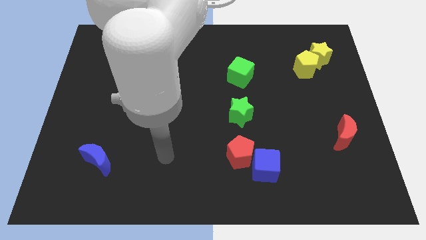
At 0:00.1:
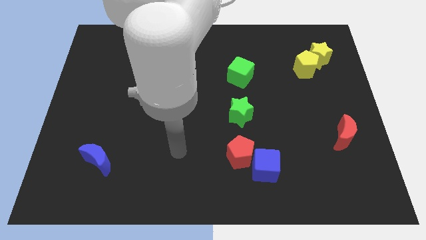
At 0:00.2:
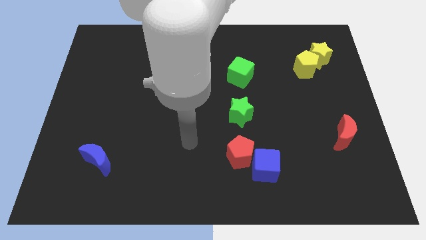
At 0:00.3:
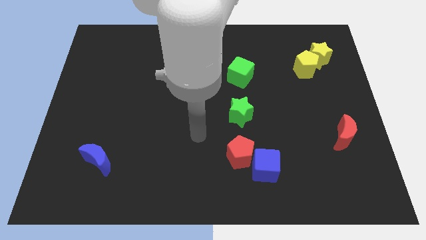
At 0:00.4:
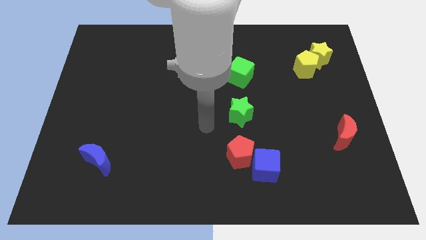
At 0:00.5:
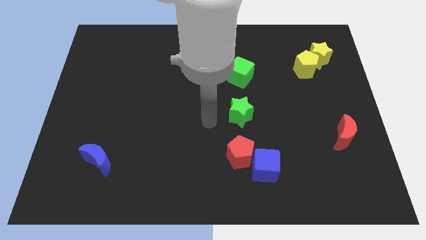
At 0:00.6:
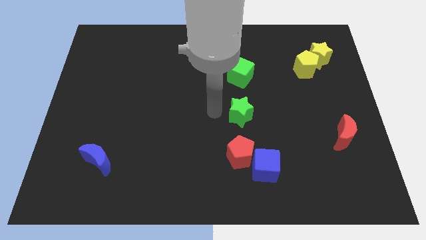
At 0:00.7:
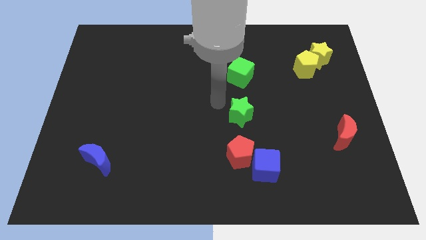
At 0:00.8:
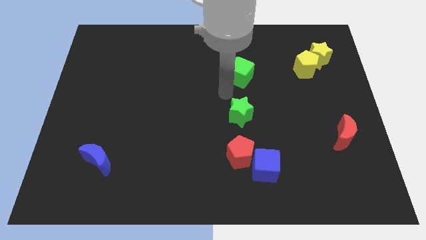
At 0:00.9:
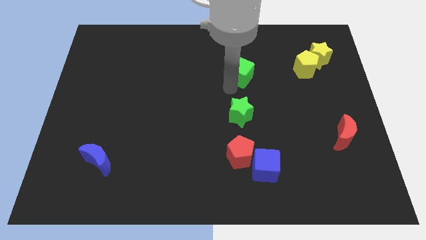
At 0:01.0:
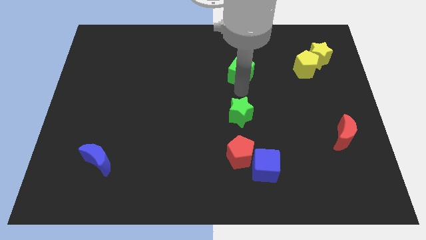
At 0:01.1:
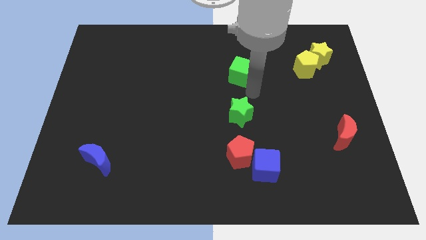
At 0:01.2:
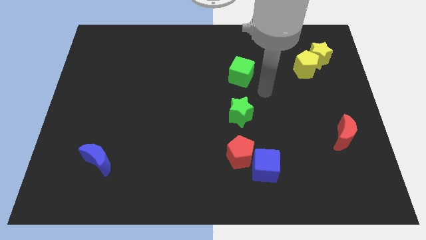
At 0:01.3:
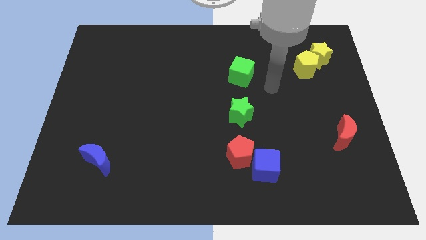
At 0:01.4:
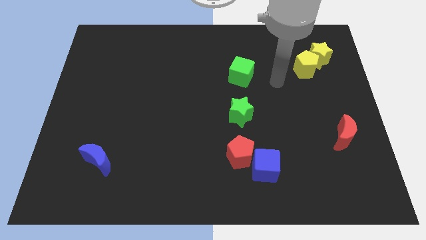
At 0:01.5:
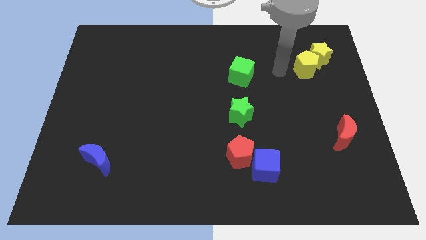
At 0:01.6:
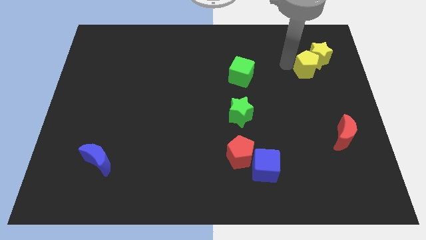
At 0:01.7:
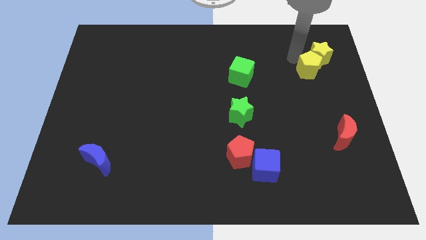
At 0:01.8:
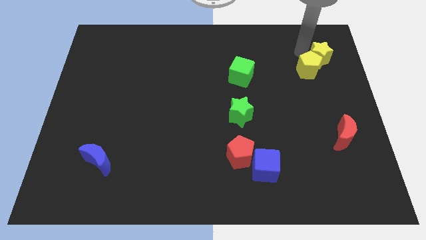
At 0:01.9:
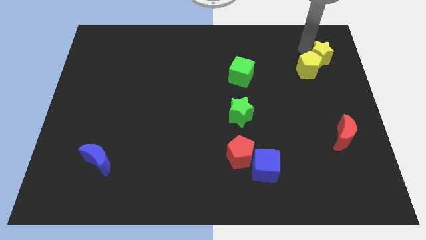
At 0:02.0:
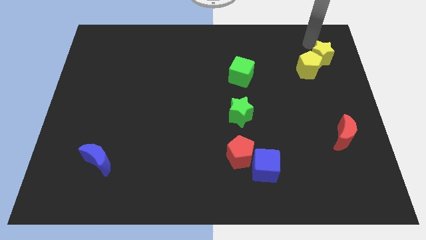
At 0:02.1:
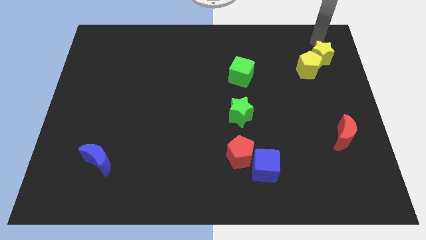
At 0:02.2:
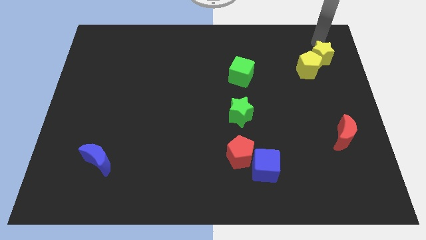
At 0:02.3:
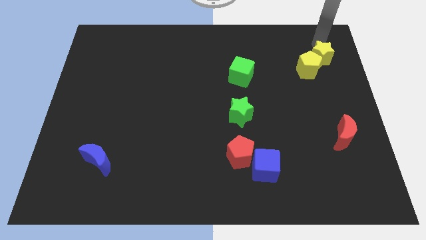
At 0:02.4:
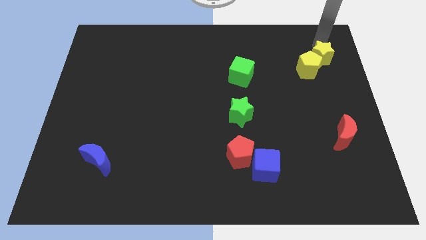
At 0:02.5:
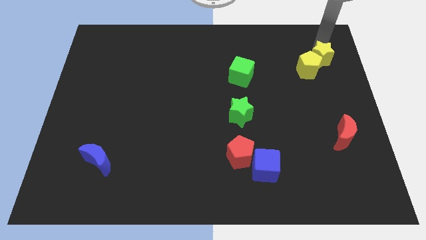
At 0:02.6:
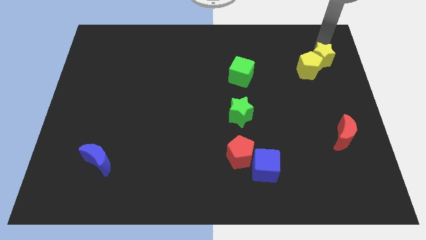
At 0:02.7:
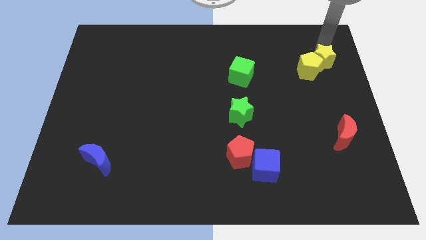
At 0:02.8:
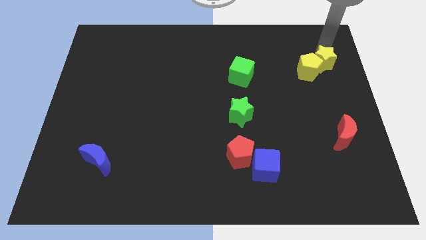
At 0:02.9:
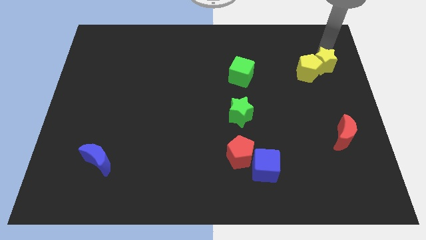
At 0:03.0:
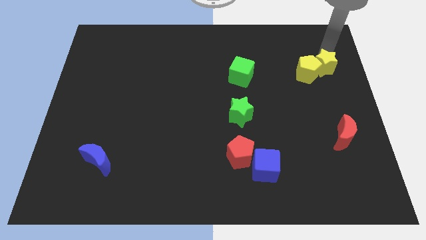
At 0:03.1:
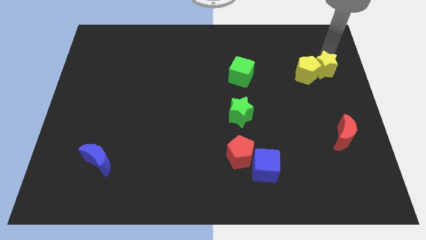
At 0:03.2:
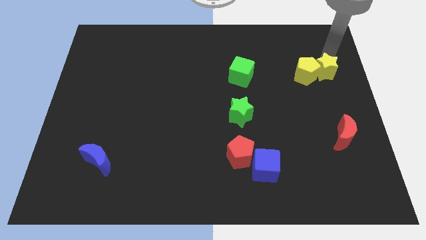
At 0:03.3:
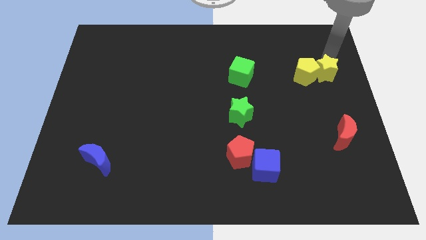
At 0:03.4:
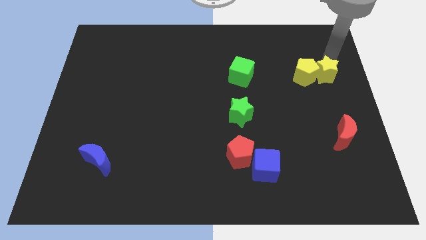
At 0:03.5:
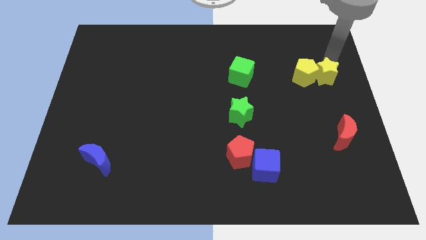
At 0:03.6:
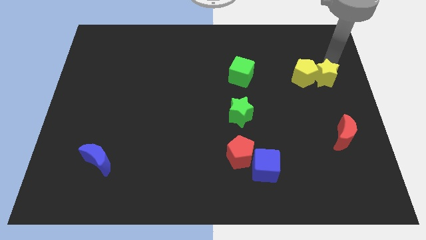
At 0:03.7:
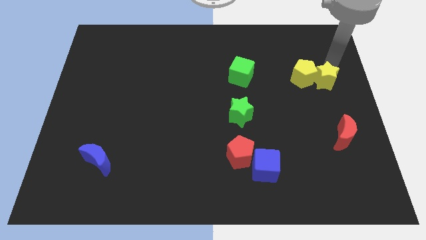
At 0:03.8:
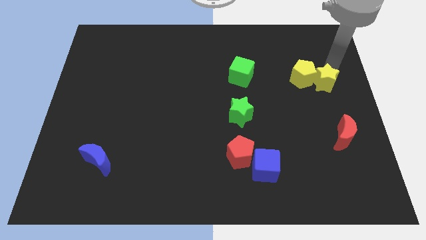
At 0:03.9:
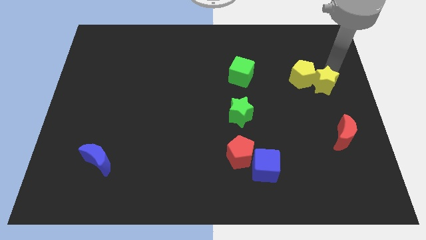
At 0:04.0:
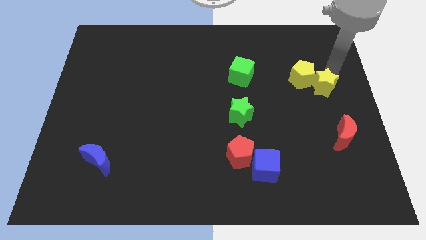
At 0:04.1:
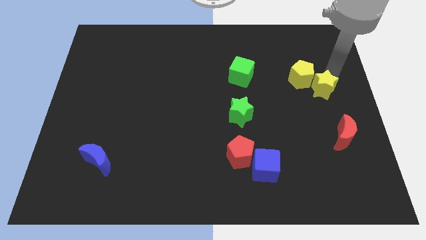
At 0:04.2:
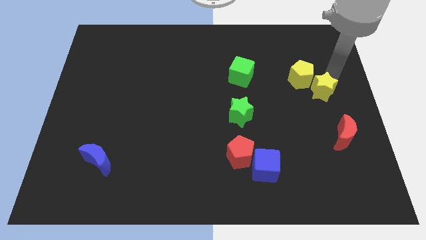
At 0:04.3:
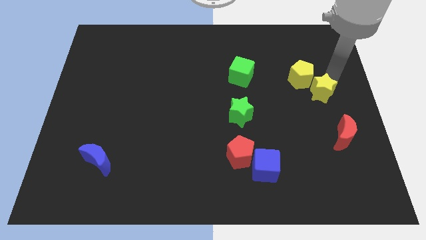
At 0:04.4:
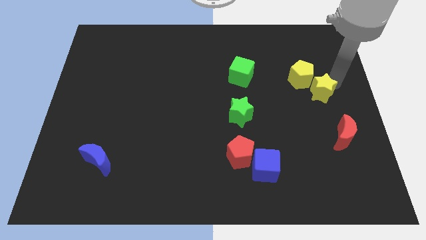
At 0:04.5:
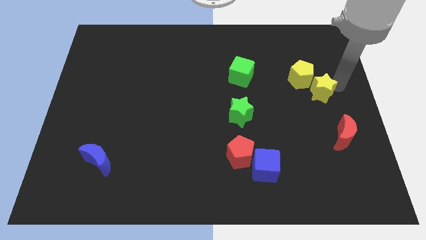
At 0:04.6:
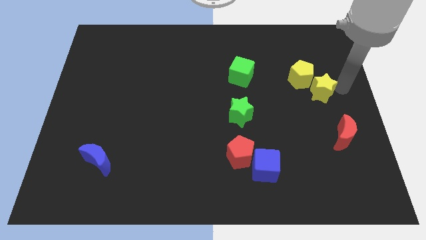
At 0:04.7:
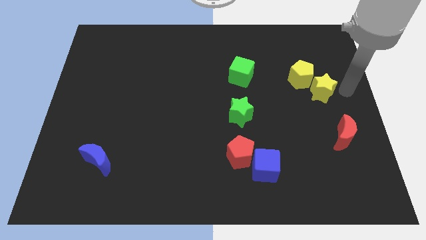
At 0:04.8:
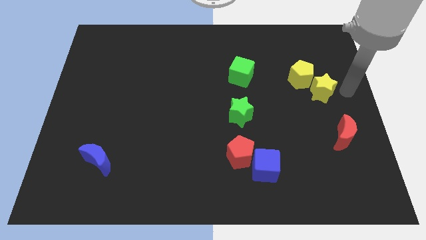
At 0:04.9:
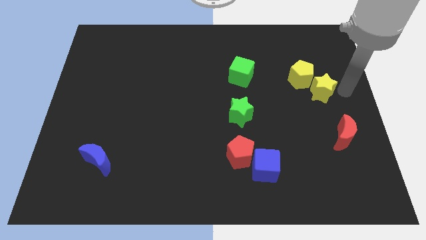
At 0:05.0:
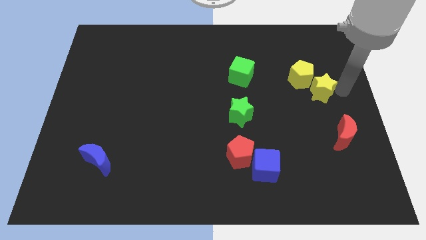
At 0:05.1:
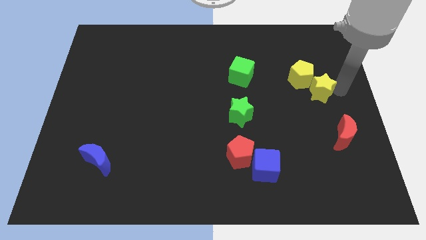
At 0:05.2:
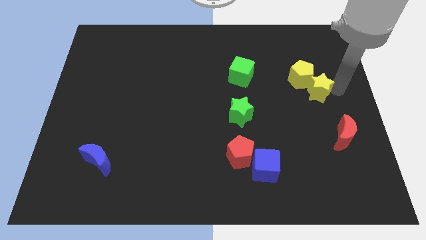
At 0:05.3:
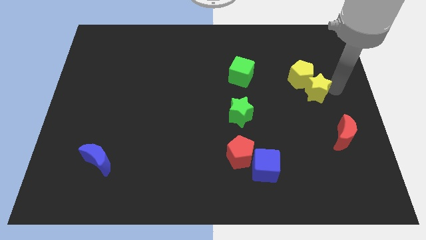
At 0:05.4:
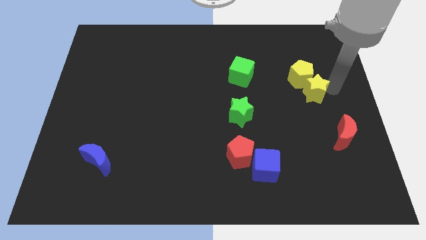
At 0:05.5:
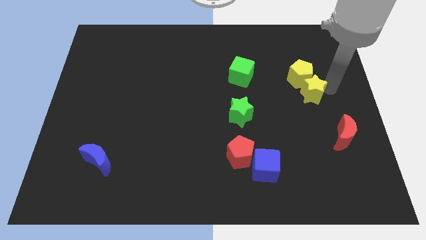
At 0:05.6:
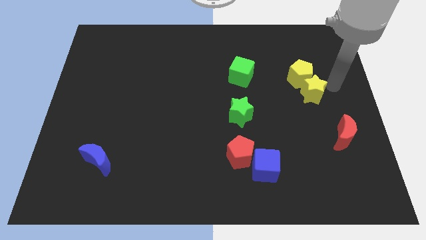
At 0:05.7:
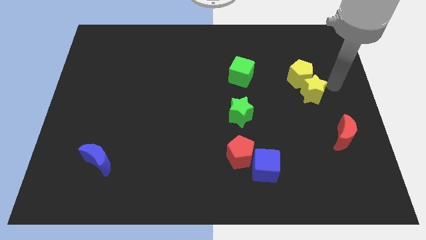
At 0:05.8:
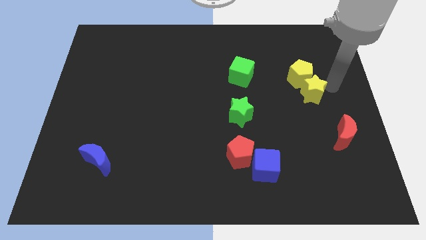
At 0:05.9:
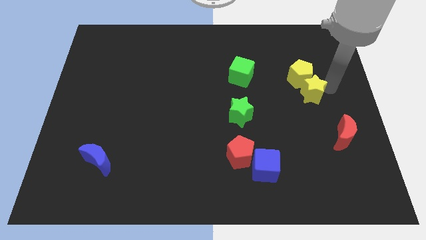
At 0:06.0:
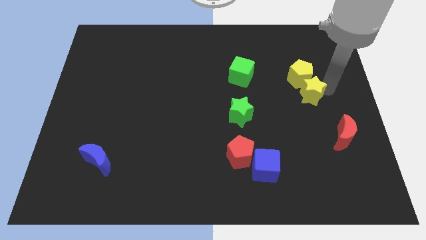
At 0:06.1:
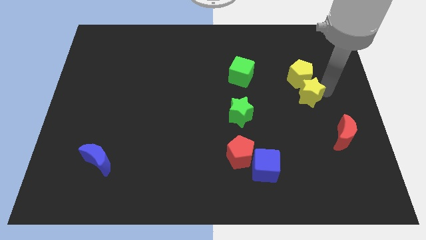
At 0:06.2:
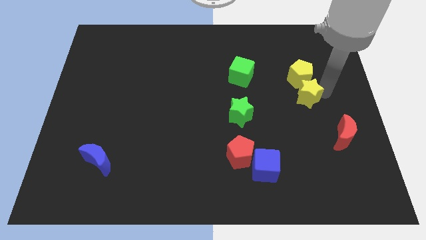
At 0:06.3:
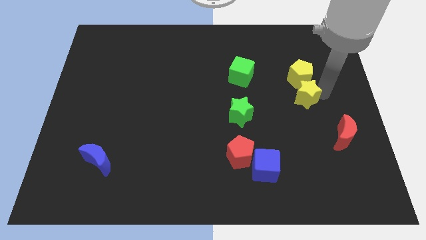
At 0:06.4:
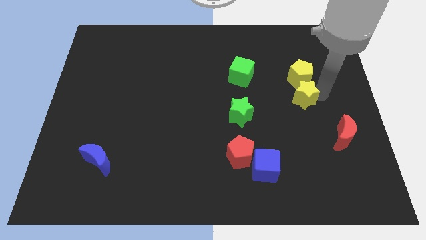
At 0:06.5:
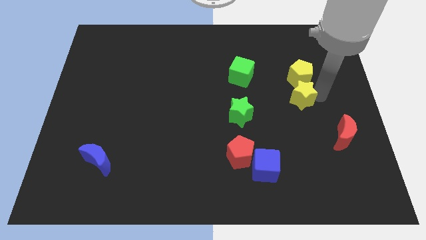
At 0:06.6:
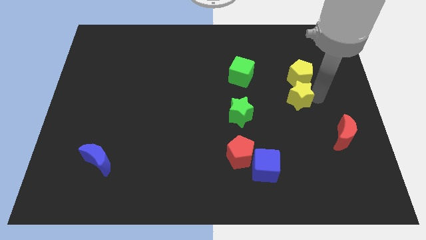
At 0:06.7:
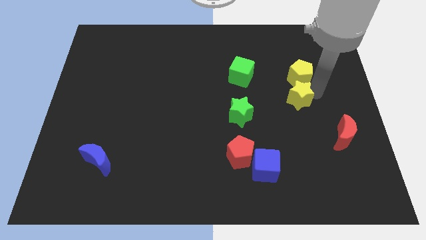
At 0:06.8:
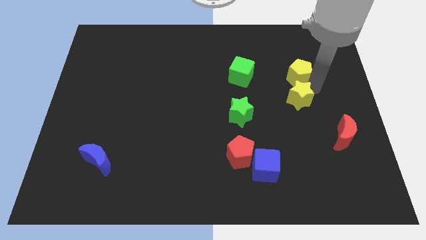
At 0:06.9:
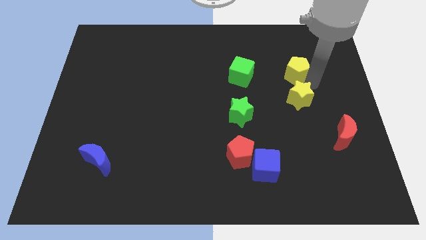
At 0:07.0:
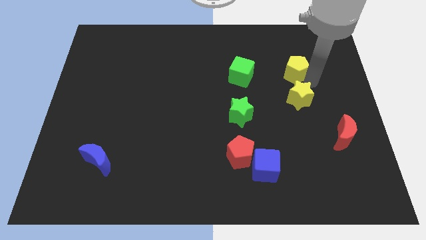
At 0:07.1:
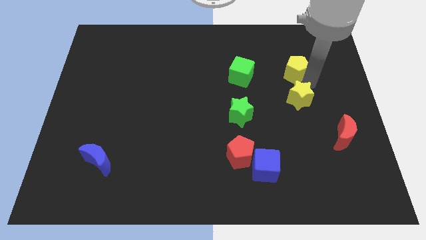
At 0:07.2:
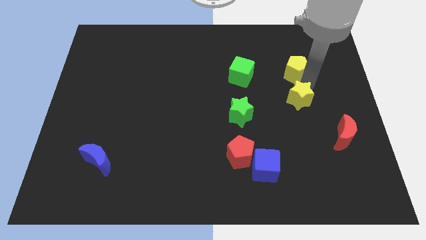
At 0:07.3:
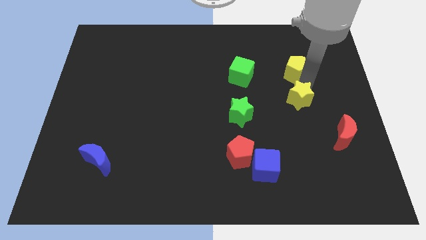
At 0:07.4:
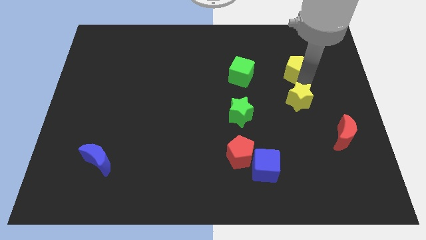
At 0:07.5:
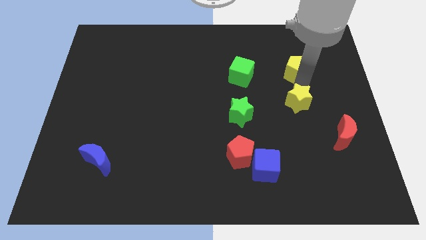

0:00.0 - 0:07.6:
put the yellow star to the right side of the green star
